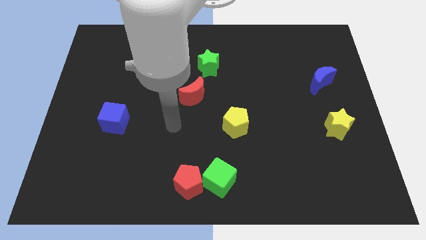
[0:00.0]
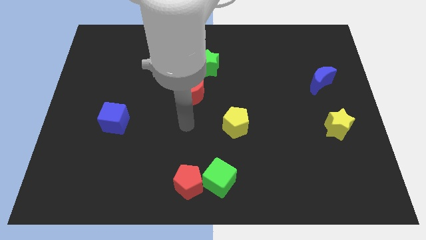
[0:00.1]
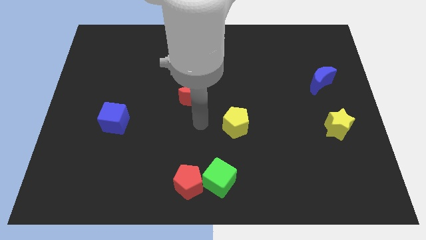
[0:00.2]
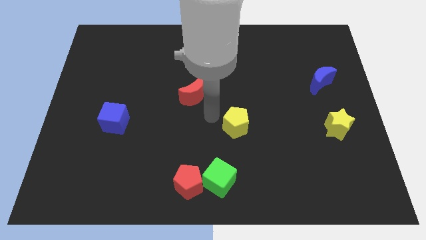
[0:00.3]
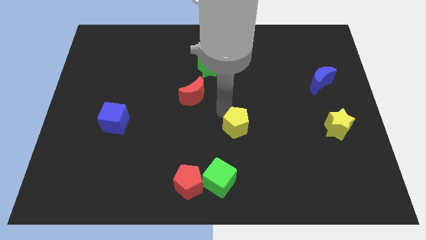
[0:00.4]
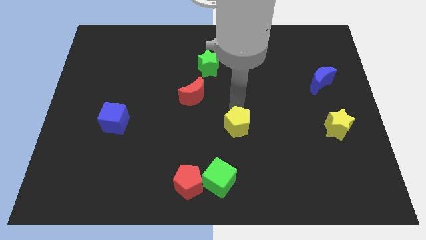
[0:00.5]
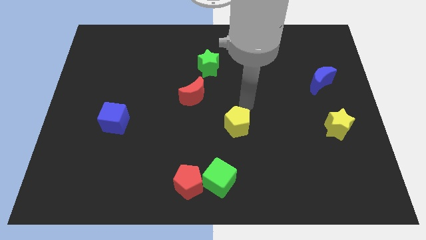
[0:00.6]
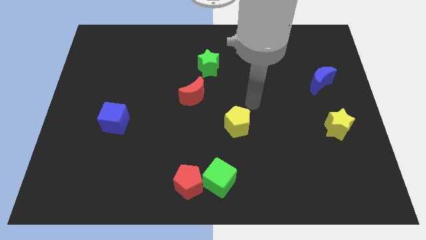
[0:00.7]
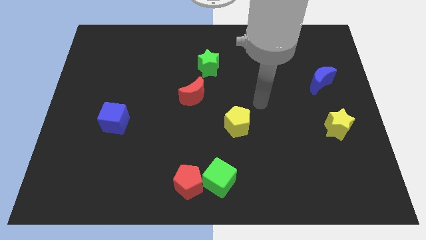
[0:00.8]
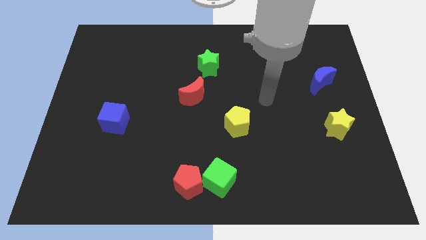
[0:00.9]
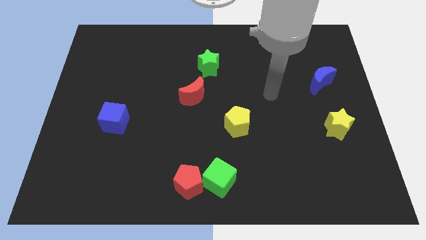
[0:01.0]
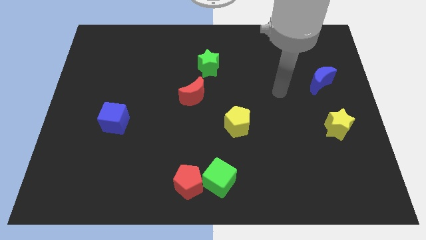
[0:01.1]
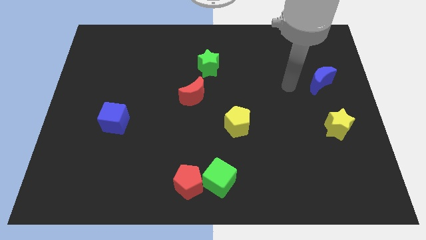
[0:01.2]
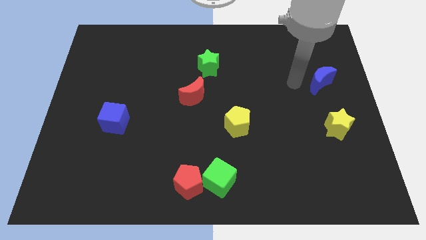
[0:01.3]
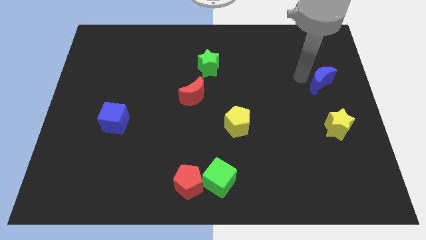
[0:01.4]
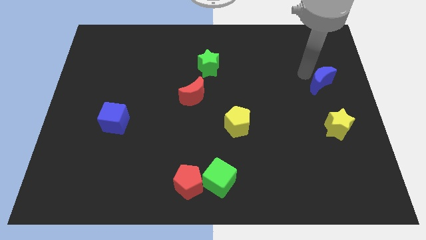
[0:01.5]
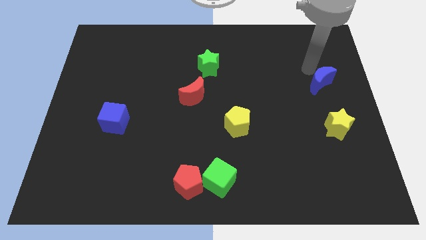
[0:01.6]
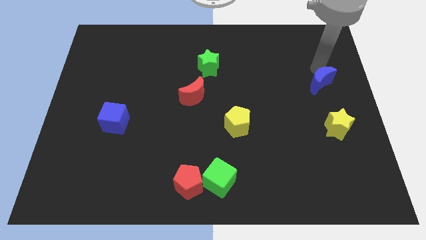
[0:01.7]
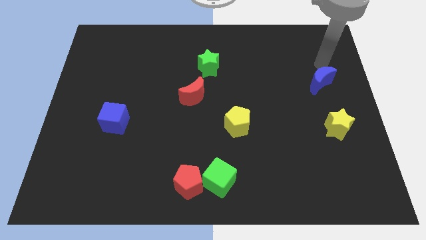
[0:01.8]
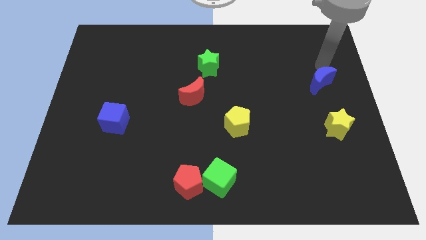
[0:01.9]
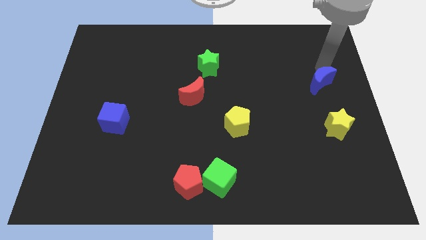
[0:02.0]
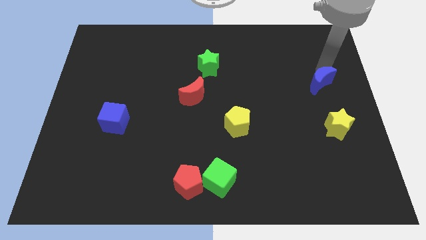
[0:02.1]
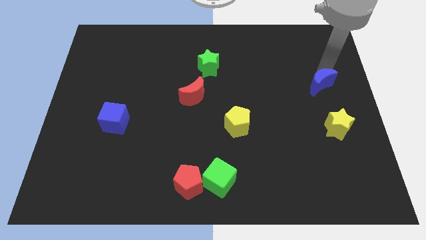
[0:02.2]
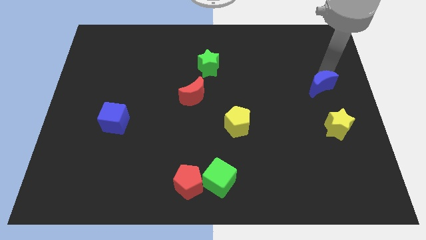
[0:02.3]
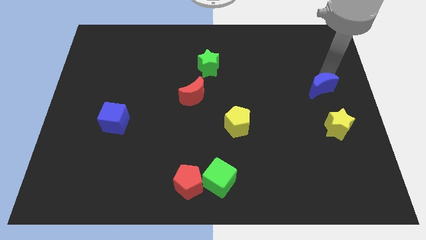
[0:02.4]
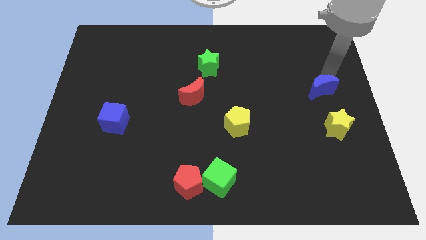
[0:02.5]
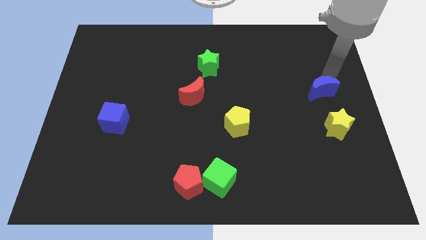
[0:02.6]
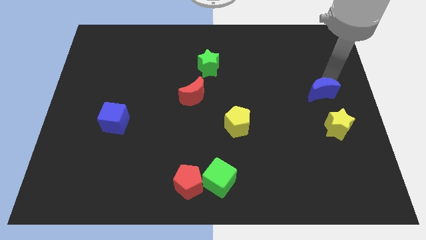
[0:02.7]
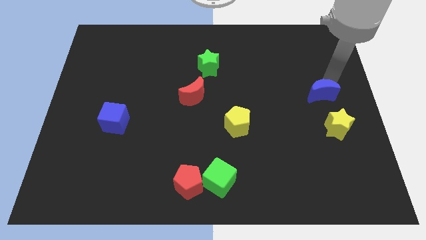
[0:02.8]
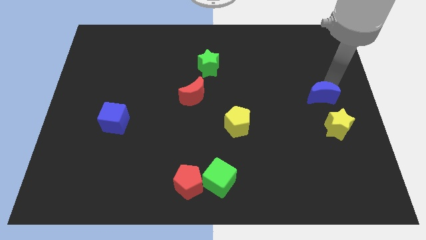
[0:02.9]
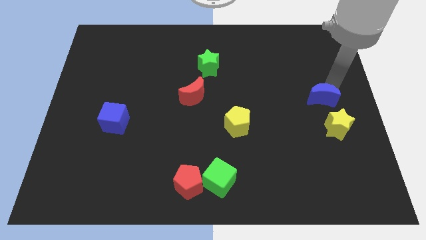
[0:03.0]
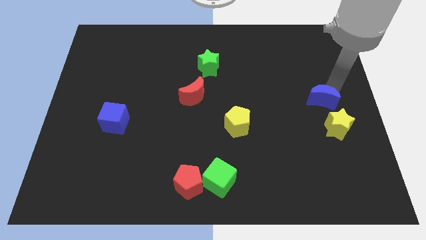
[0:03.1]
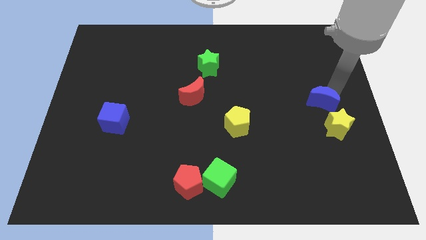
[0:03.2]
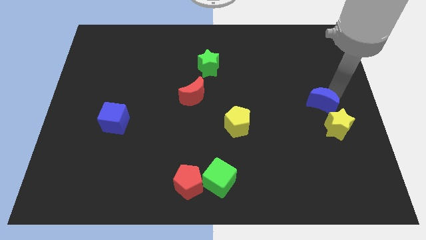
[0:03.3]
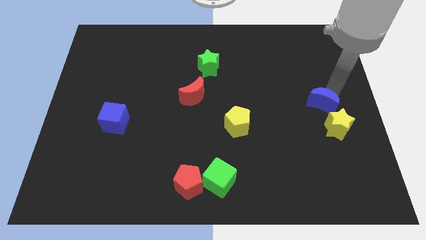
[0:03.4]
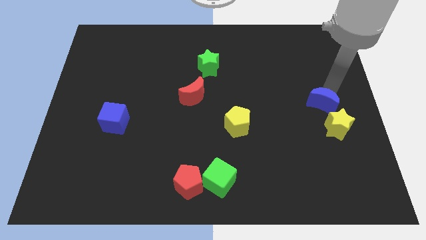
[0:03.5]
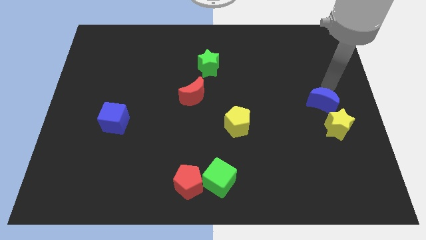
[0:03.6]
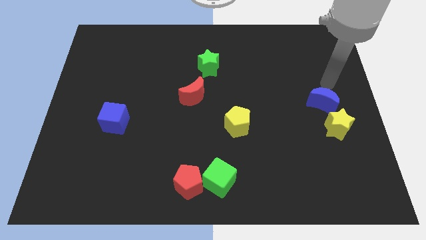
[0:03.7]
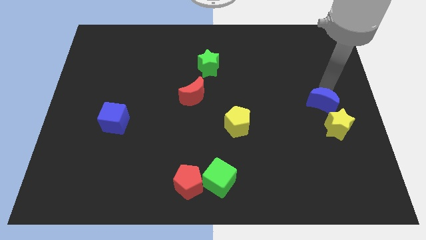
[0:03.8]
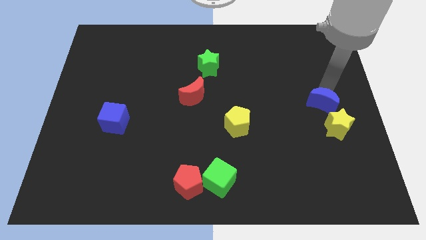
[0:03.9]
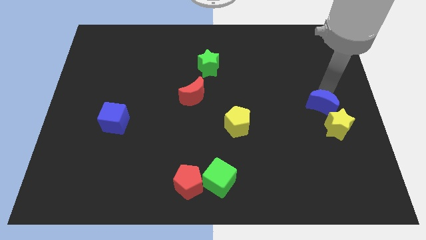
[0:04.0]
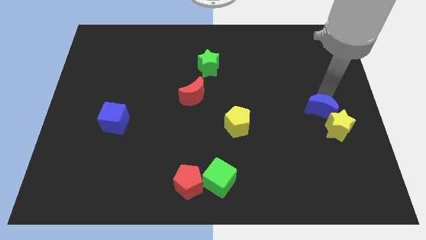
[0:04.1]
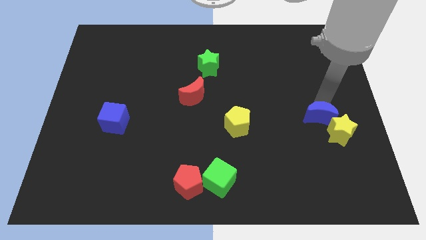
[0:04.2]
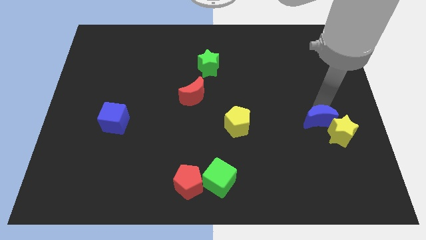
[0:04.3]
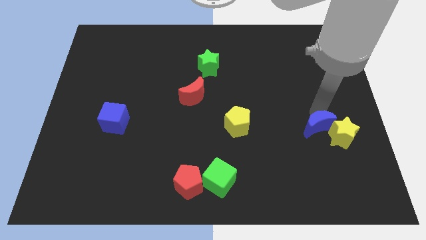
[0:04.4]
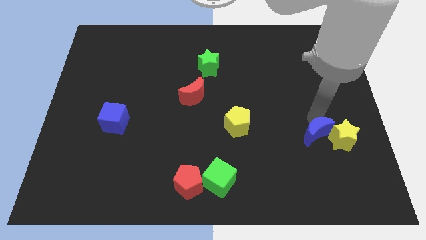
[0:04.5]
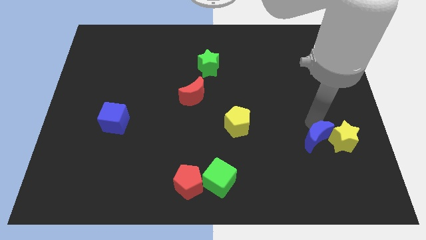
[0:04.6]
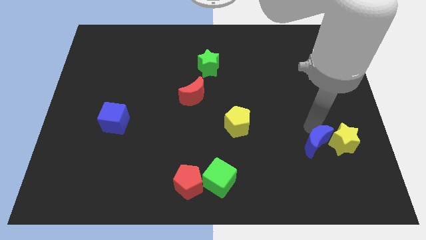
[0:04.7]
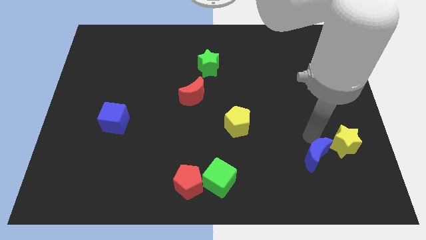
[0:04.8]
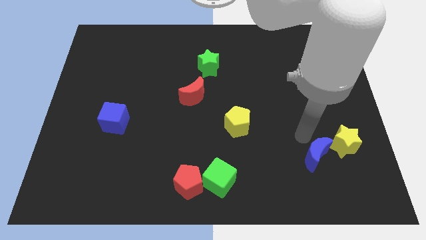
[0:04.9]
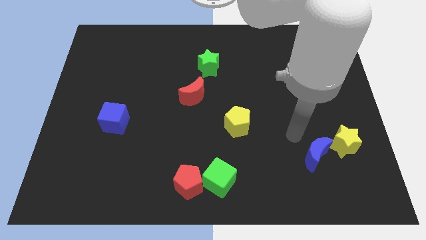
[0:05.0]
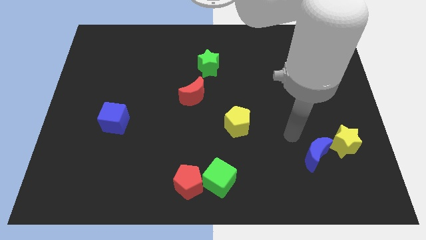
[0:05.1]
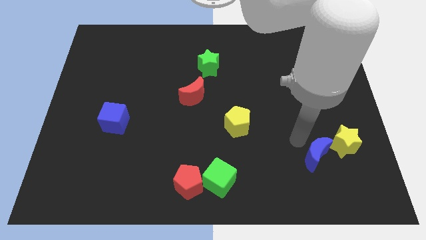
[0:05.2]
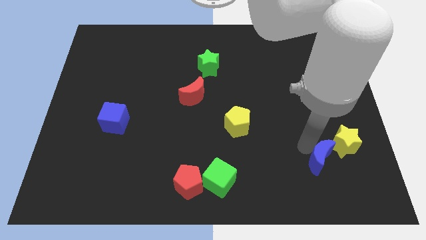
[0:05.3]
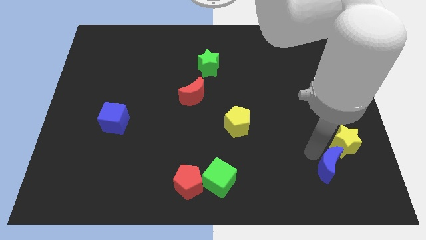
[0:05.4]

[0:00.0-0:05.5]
push the blue moon below the yellow star

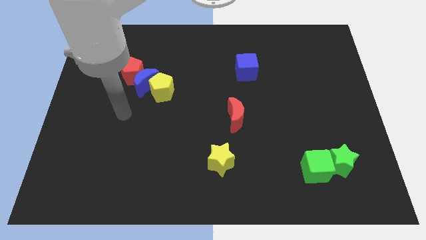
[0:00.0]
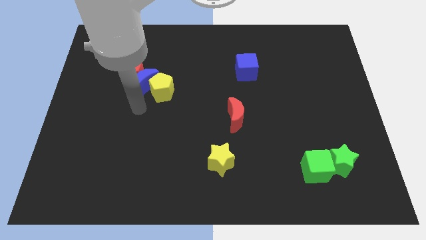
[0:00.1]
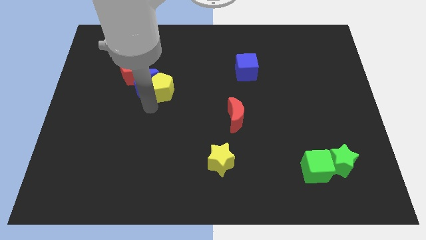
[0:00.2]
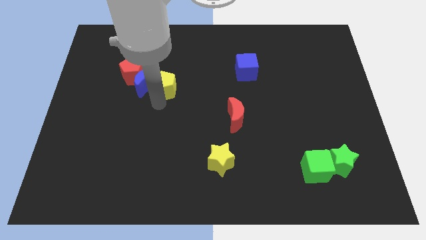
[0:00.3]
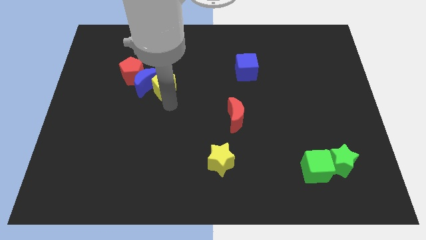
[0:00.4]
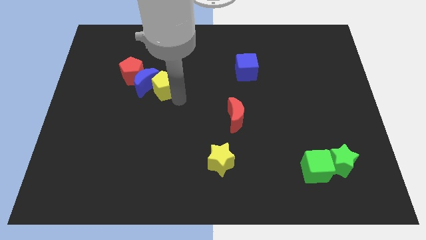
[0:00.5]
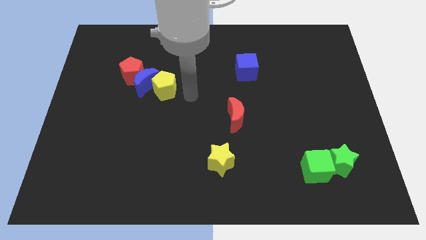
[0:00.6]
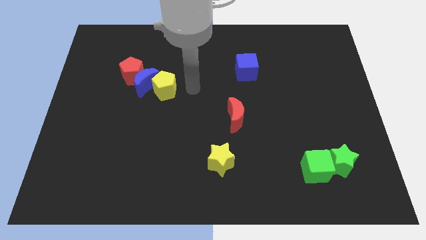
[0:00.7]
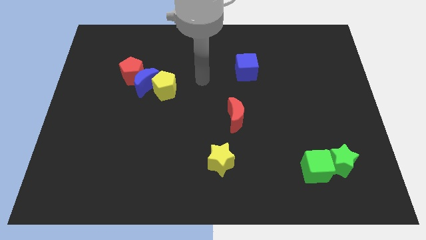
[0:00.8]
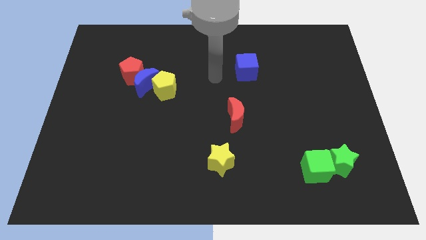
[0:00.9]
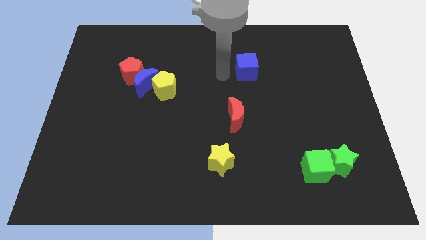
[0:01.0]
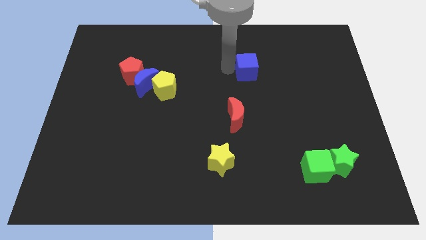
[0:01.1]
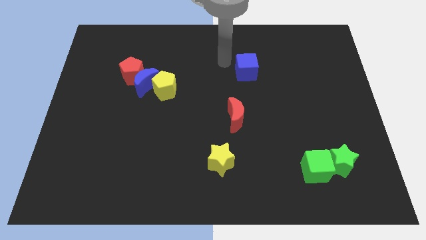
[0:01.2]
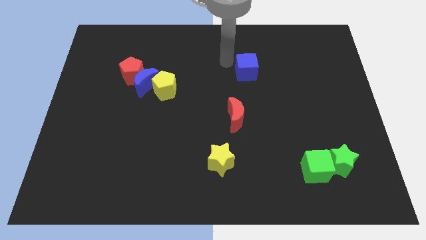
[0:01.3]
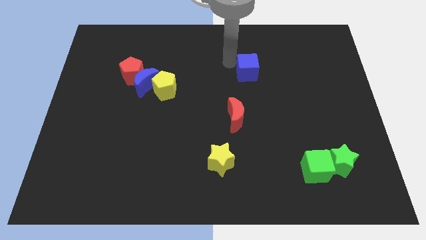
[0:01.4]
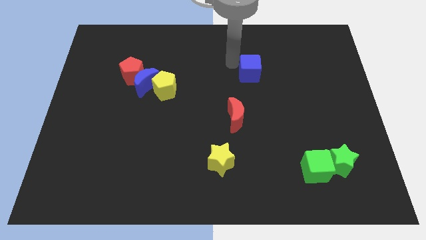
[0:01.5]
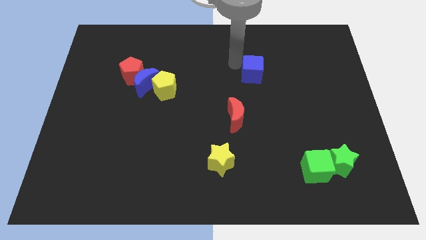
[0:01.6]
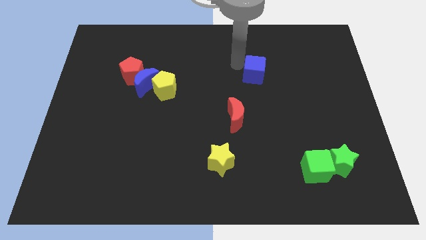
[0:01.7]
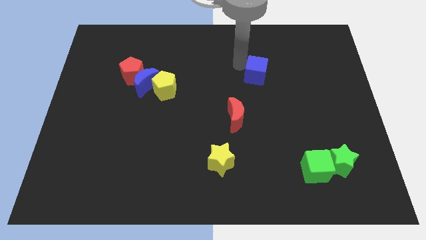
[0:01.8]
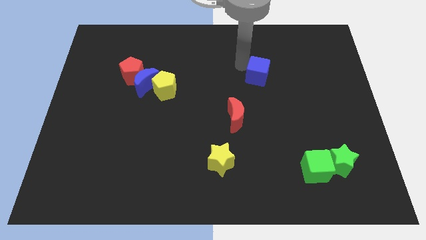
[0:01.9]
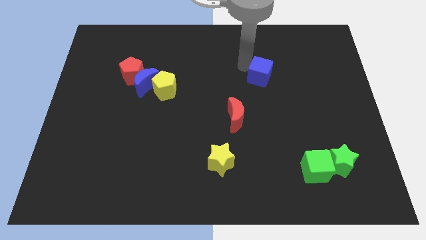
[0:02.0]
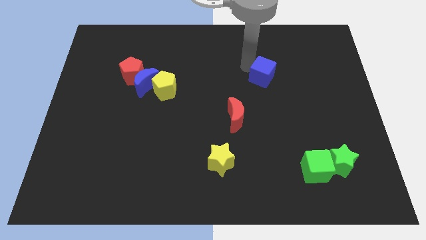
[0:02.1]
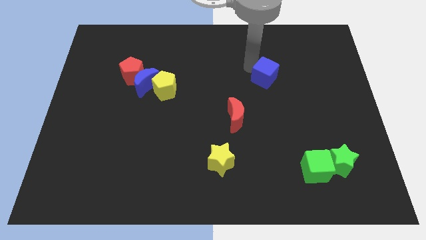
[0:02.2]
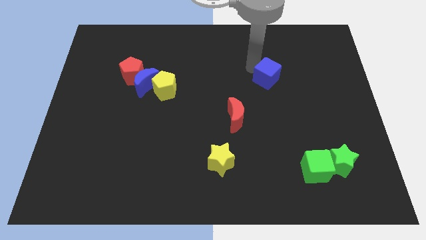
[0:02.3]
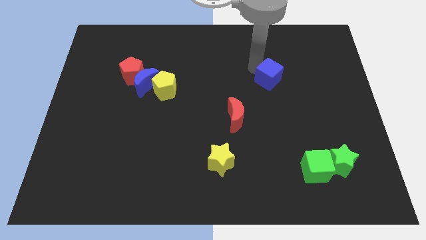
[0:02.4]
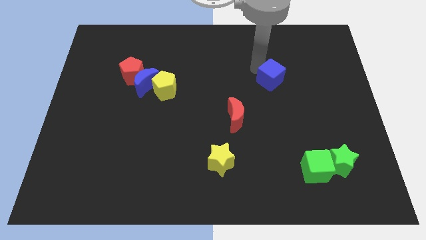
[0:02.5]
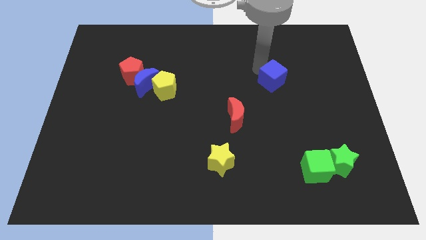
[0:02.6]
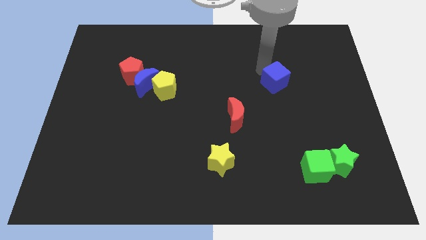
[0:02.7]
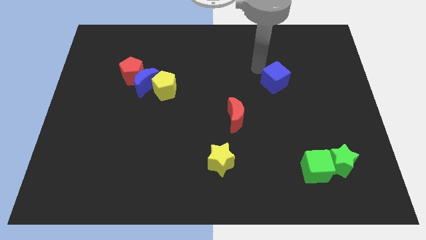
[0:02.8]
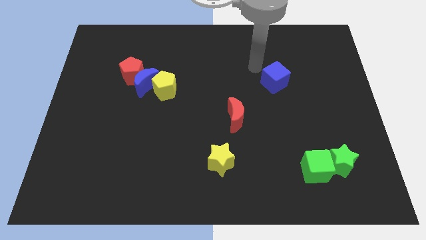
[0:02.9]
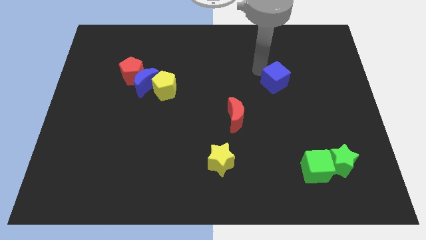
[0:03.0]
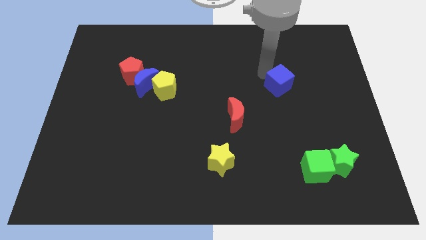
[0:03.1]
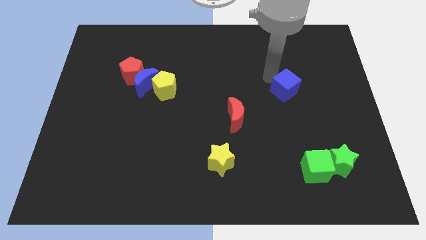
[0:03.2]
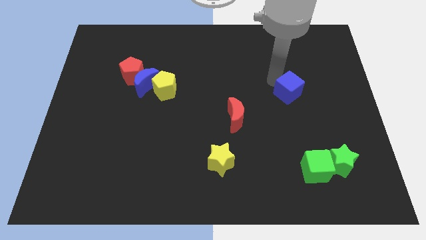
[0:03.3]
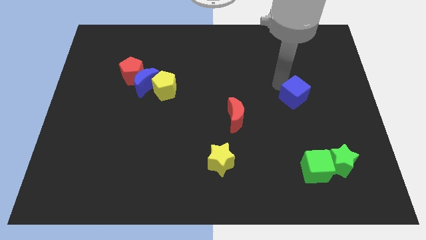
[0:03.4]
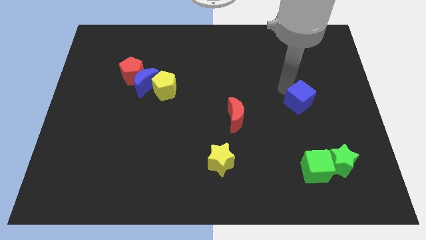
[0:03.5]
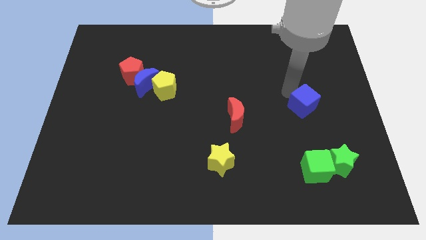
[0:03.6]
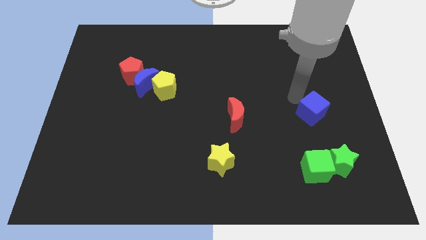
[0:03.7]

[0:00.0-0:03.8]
push the blue cube above the green star
